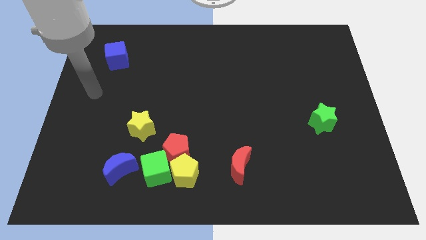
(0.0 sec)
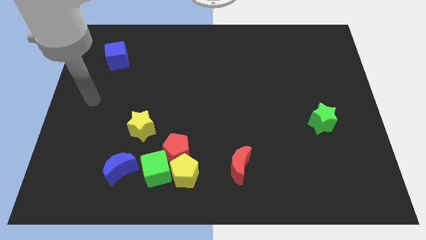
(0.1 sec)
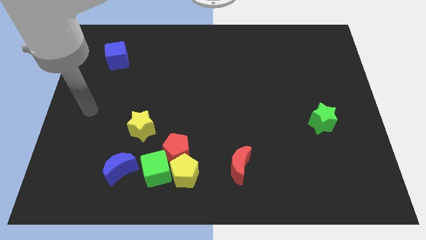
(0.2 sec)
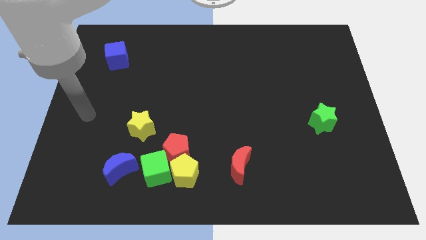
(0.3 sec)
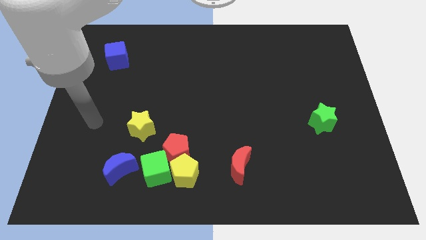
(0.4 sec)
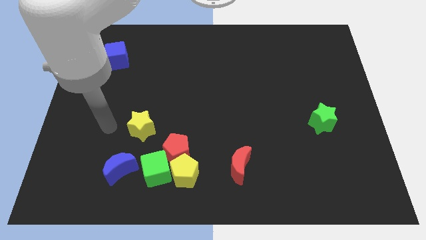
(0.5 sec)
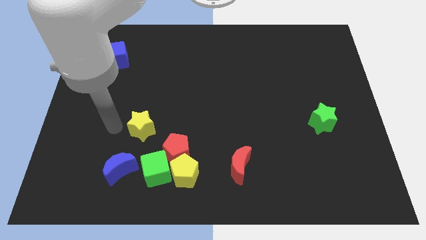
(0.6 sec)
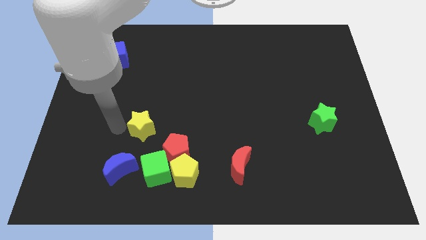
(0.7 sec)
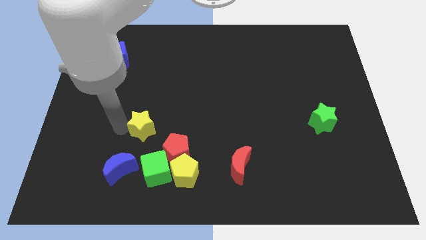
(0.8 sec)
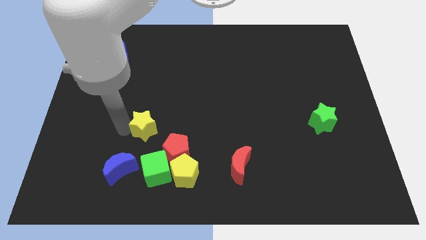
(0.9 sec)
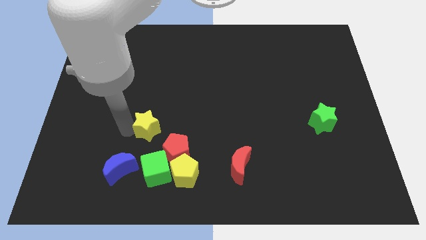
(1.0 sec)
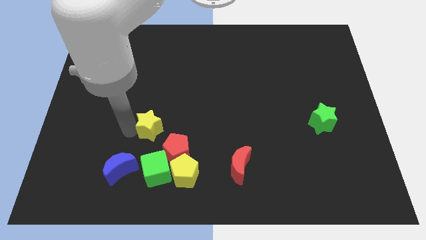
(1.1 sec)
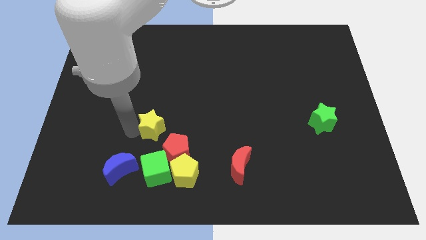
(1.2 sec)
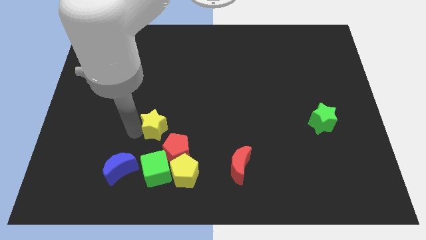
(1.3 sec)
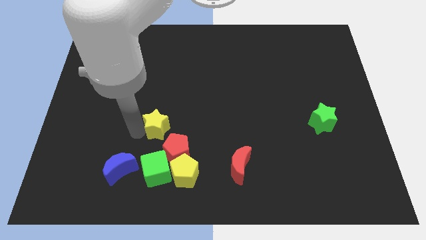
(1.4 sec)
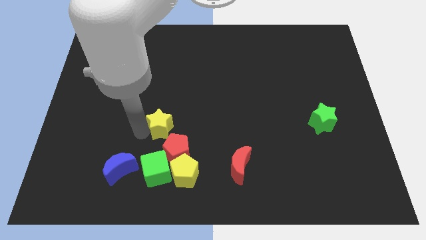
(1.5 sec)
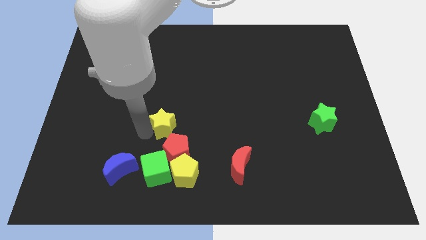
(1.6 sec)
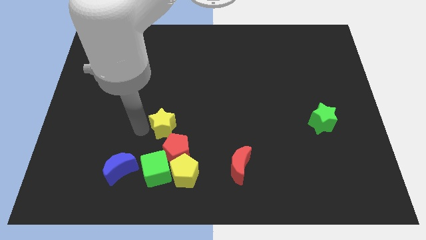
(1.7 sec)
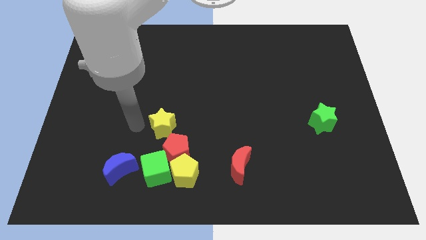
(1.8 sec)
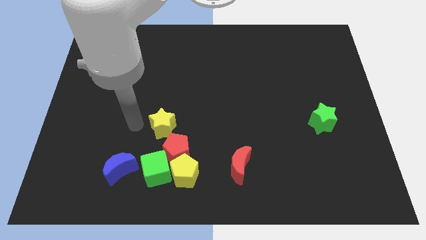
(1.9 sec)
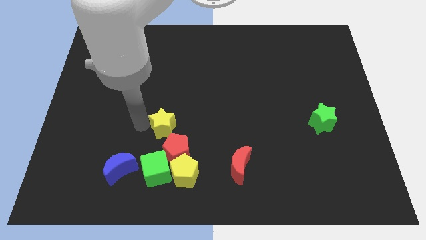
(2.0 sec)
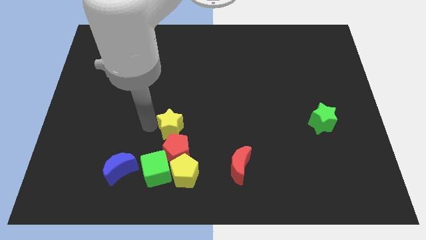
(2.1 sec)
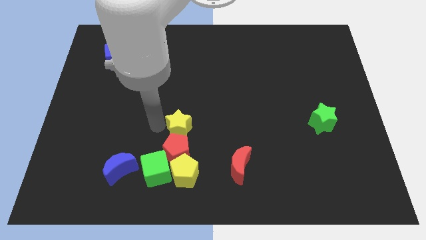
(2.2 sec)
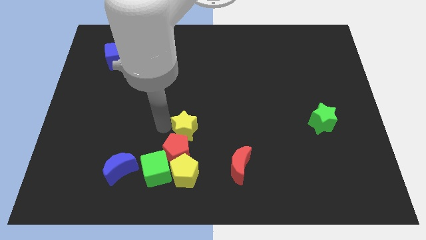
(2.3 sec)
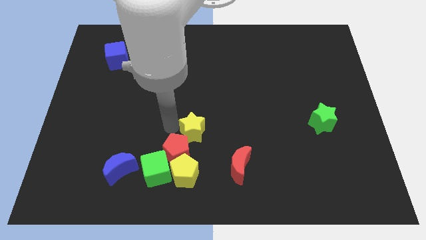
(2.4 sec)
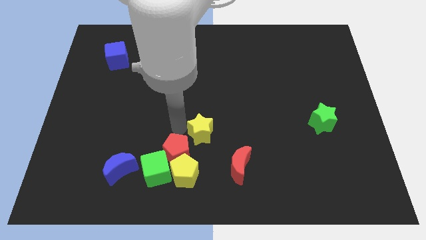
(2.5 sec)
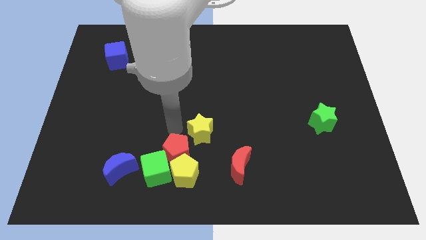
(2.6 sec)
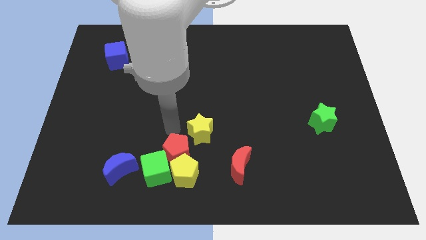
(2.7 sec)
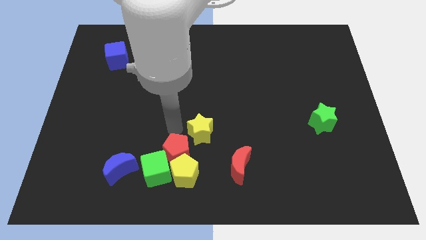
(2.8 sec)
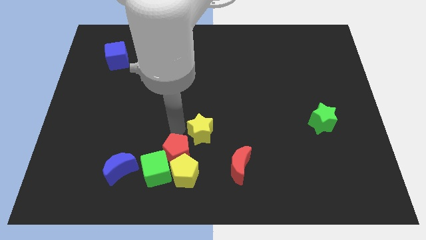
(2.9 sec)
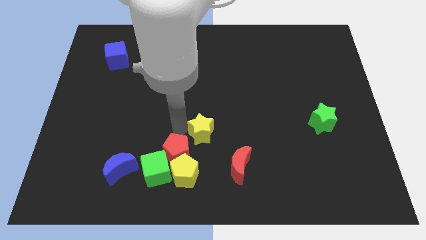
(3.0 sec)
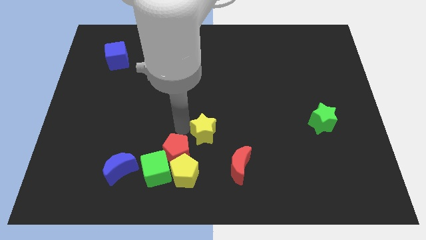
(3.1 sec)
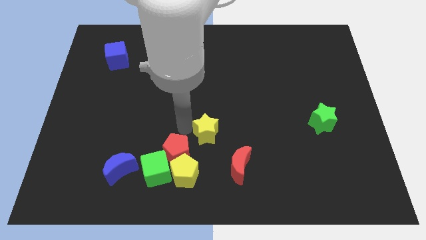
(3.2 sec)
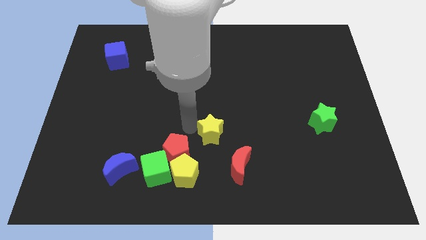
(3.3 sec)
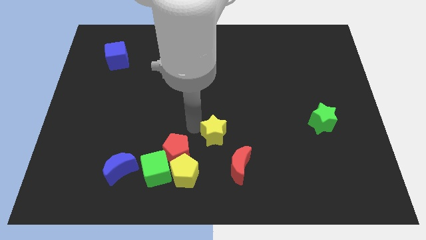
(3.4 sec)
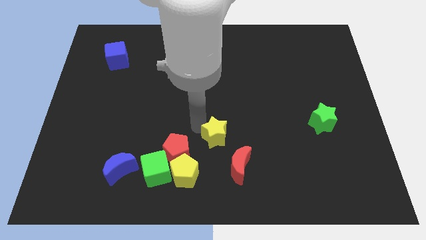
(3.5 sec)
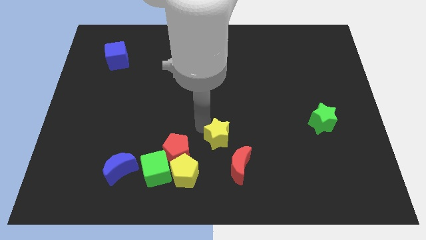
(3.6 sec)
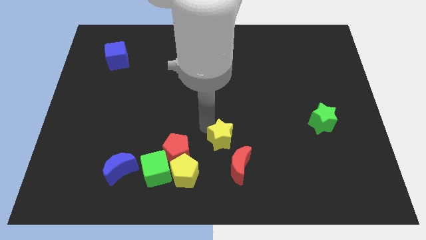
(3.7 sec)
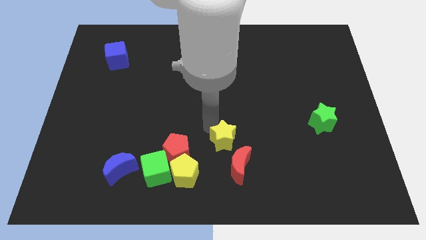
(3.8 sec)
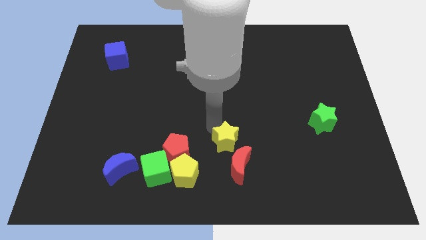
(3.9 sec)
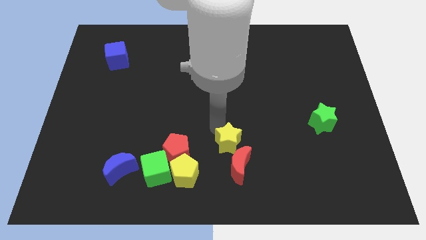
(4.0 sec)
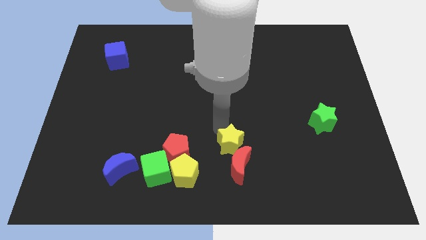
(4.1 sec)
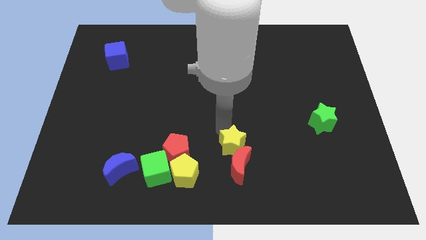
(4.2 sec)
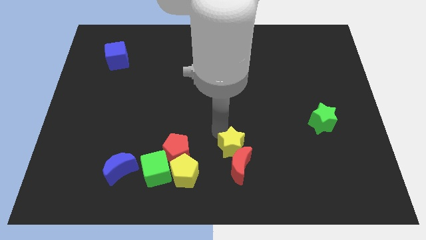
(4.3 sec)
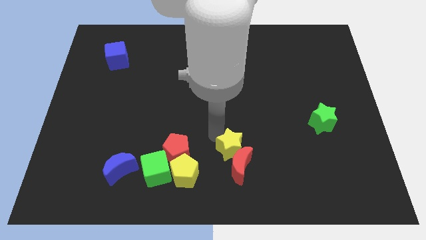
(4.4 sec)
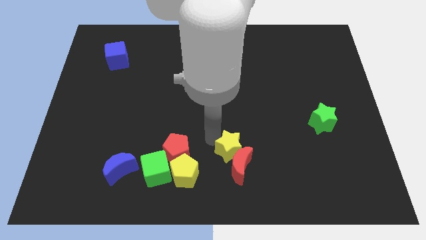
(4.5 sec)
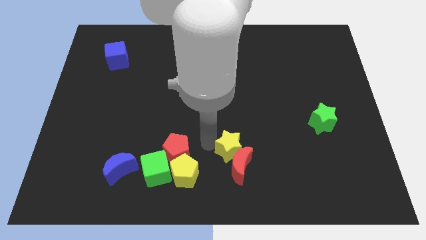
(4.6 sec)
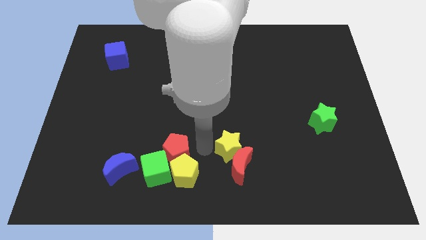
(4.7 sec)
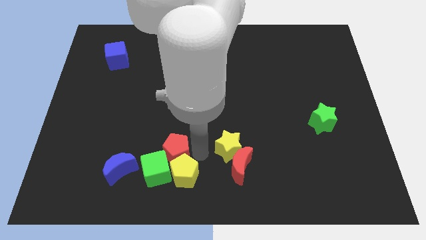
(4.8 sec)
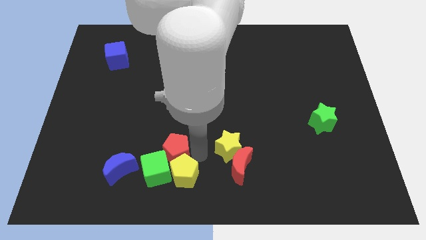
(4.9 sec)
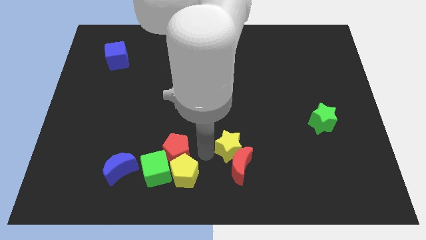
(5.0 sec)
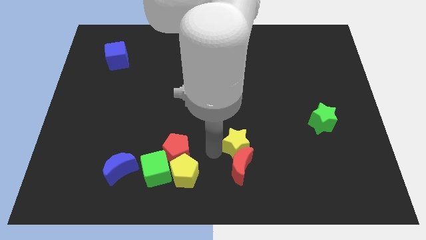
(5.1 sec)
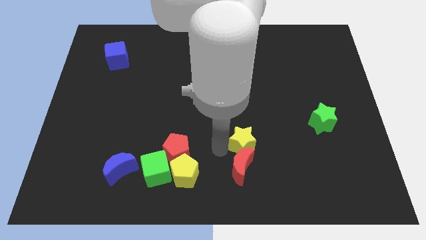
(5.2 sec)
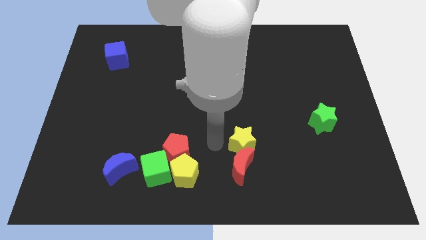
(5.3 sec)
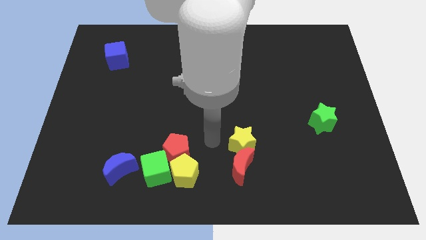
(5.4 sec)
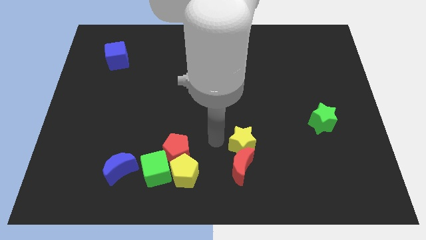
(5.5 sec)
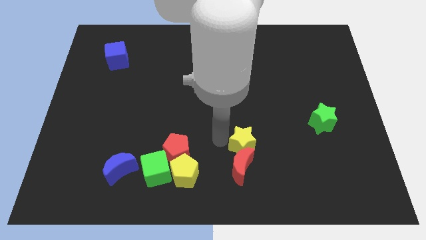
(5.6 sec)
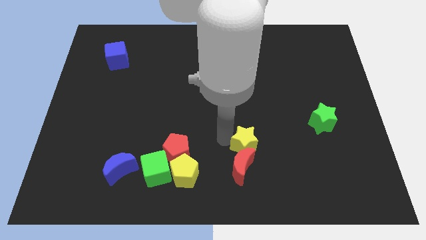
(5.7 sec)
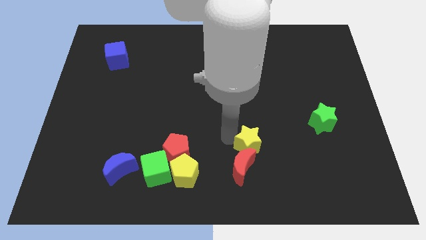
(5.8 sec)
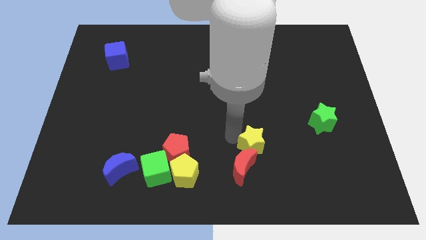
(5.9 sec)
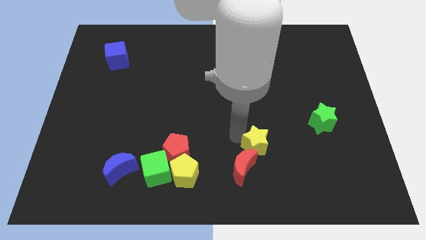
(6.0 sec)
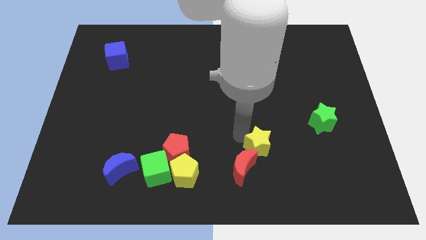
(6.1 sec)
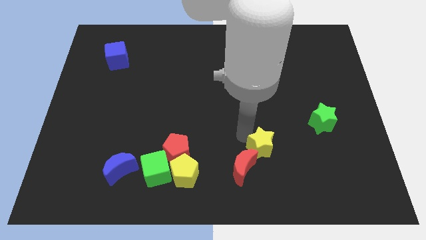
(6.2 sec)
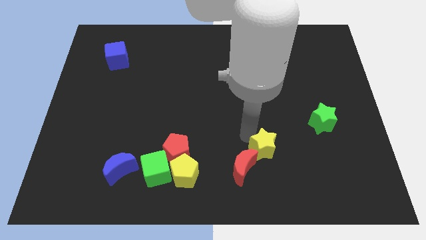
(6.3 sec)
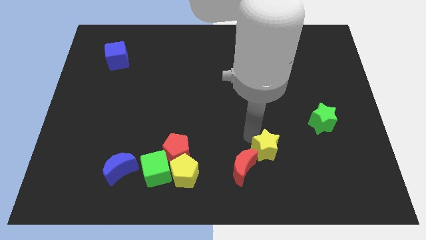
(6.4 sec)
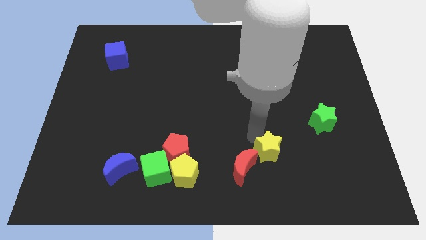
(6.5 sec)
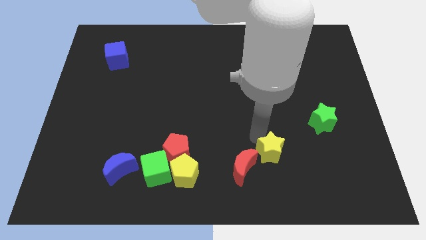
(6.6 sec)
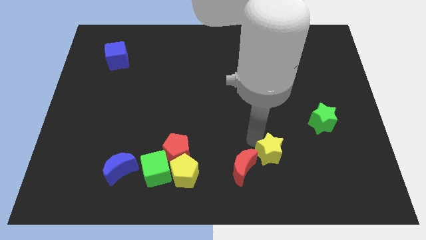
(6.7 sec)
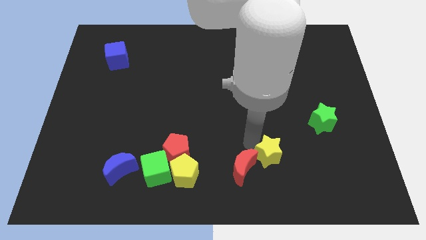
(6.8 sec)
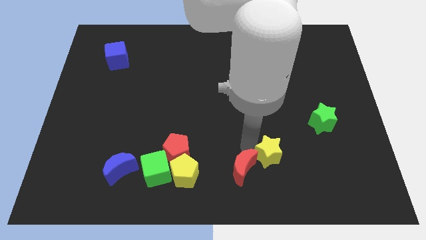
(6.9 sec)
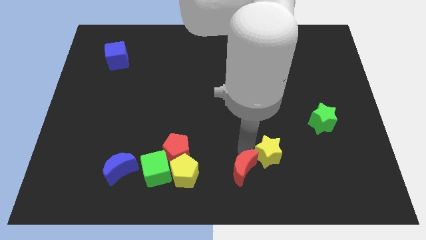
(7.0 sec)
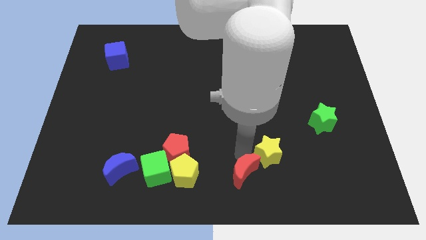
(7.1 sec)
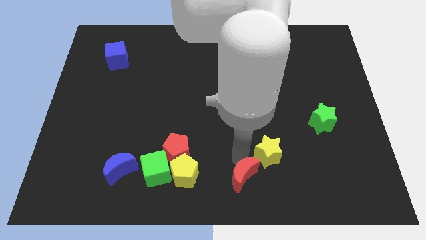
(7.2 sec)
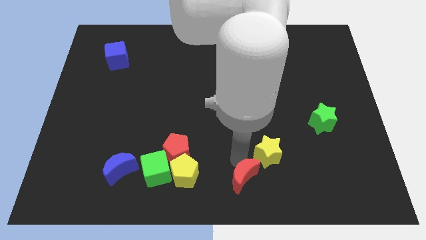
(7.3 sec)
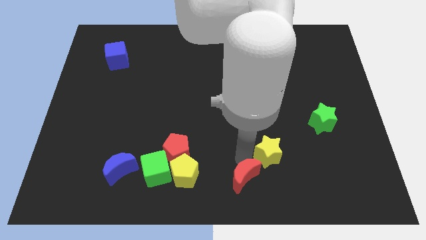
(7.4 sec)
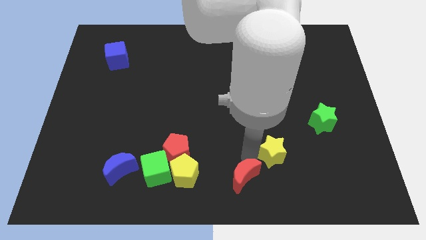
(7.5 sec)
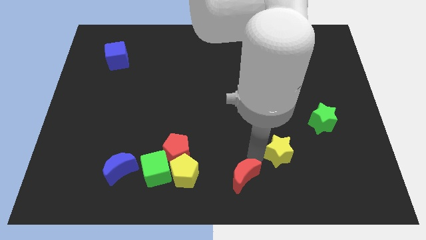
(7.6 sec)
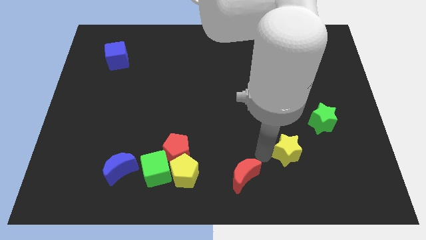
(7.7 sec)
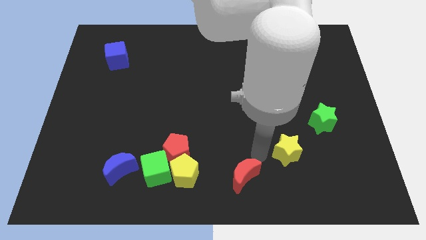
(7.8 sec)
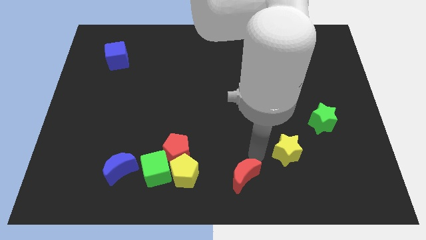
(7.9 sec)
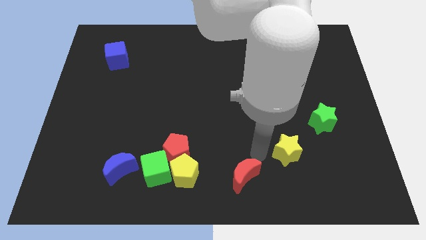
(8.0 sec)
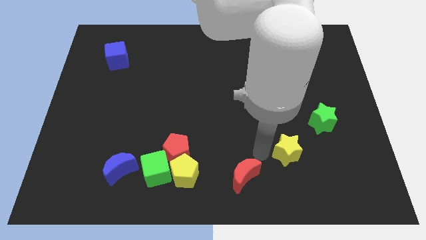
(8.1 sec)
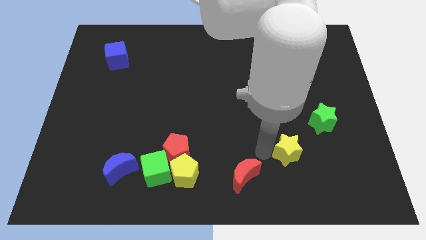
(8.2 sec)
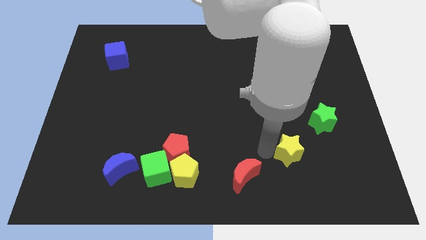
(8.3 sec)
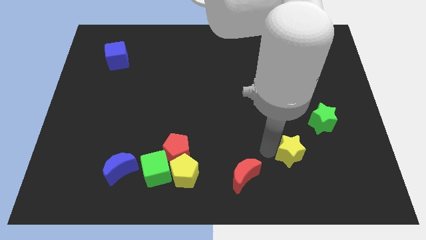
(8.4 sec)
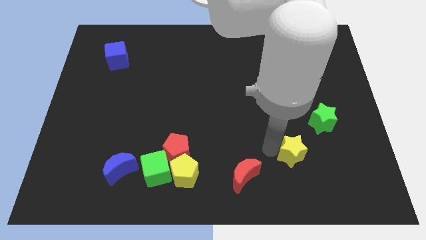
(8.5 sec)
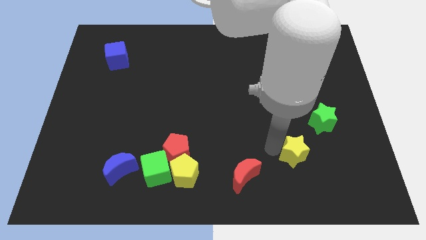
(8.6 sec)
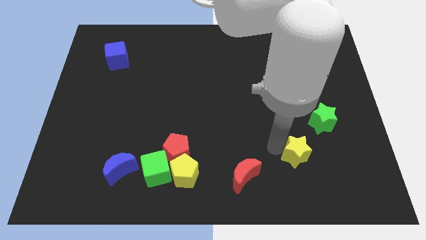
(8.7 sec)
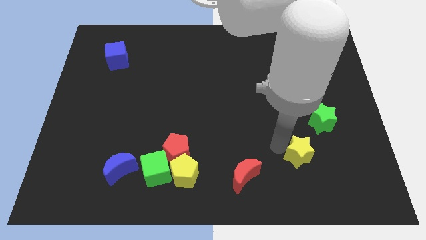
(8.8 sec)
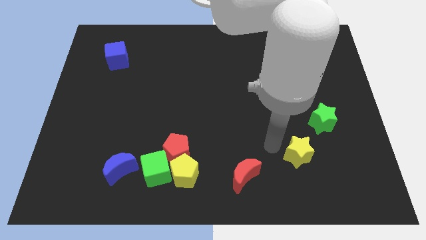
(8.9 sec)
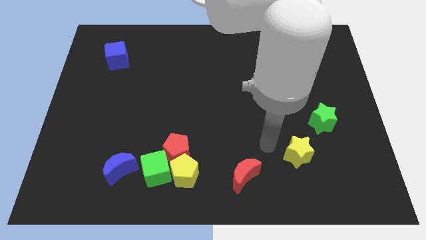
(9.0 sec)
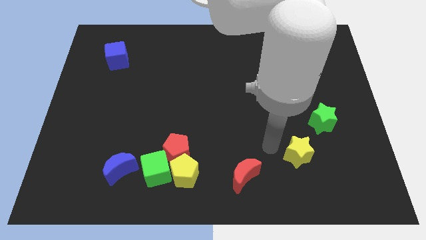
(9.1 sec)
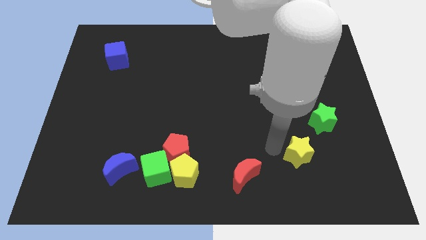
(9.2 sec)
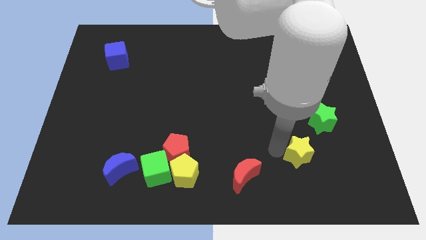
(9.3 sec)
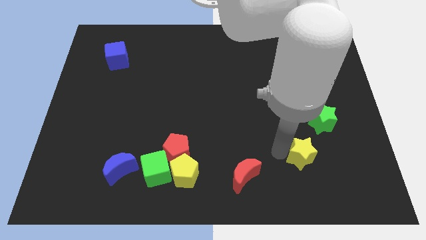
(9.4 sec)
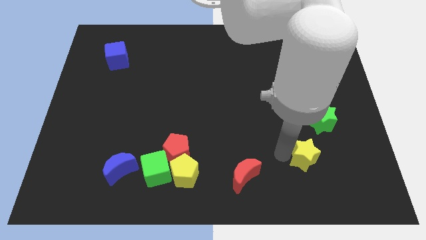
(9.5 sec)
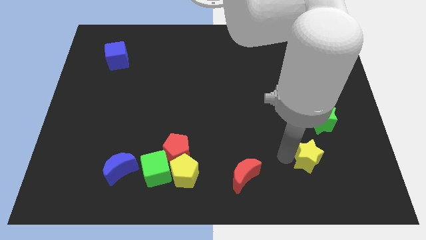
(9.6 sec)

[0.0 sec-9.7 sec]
push the yellow star below the green star
